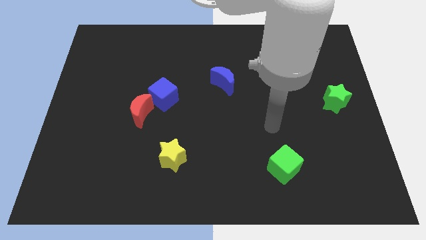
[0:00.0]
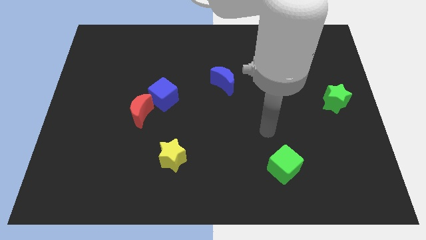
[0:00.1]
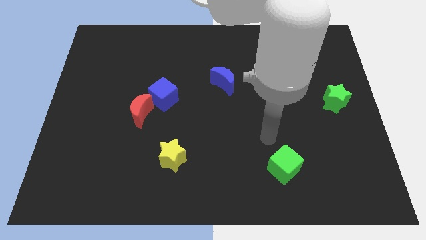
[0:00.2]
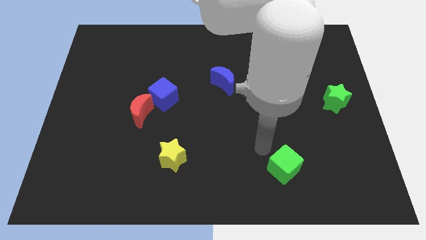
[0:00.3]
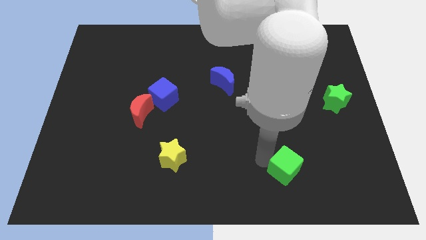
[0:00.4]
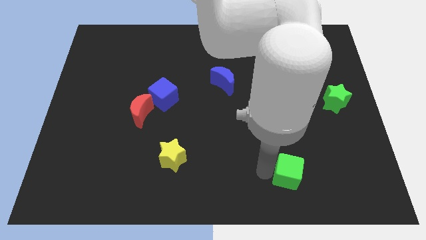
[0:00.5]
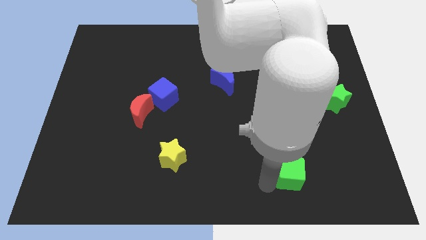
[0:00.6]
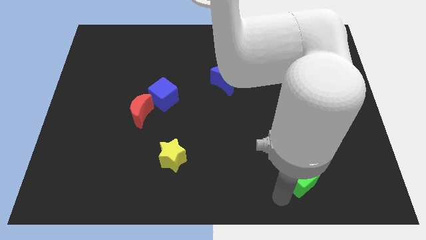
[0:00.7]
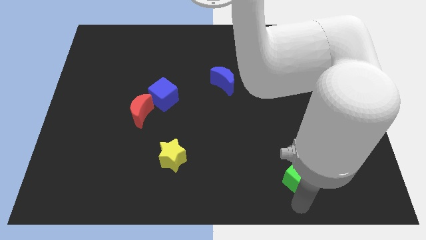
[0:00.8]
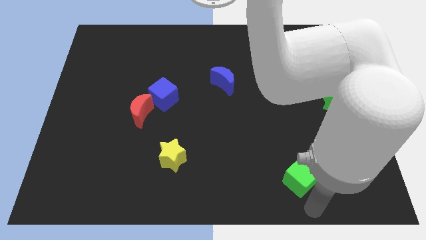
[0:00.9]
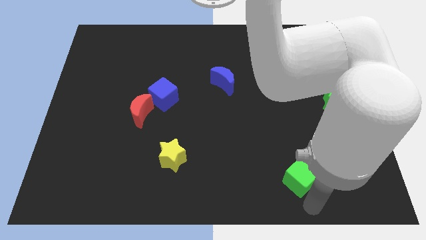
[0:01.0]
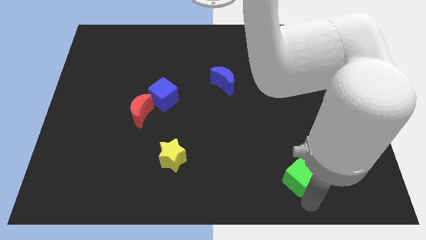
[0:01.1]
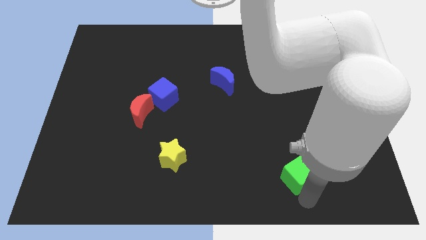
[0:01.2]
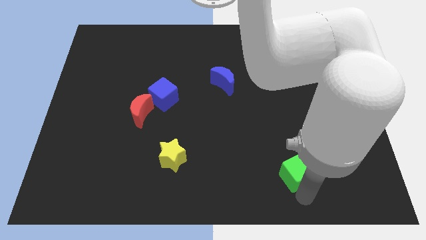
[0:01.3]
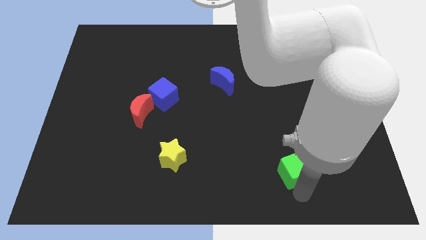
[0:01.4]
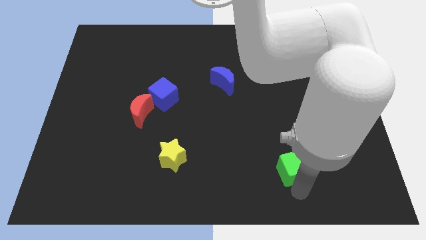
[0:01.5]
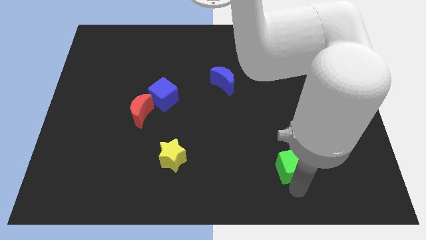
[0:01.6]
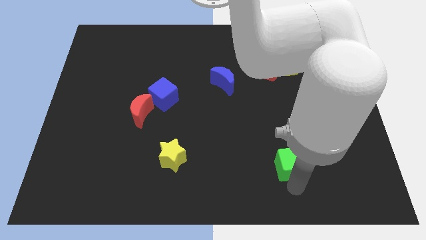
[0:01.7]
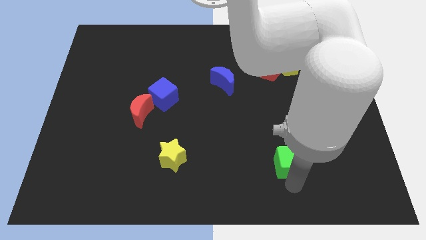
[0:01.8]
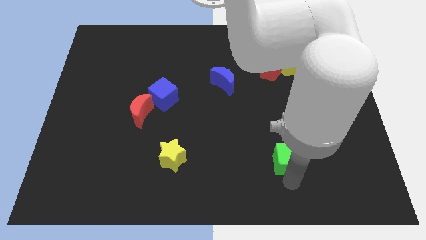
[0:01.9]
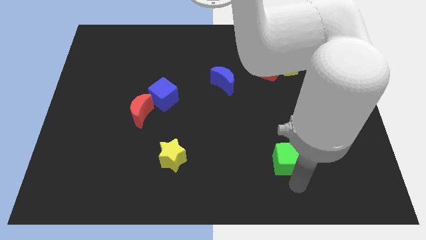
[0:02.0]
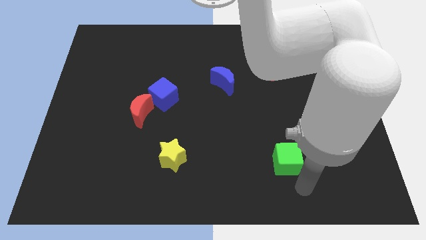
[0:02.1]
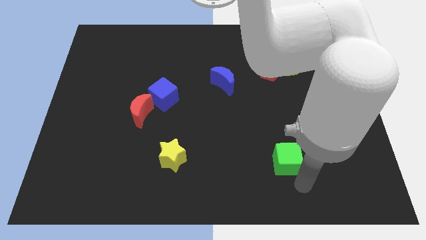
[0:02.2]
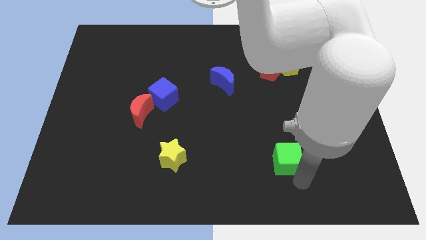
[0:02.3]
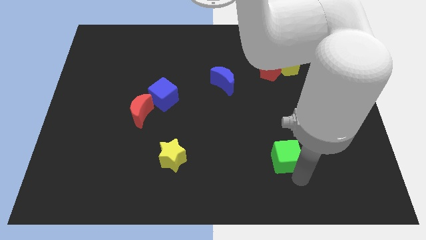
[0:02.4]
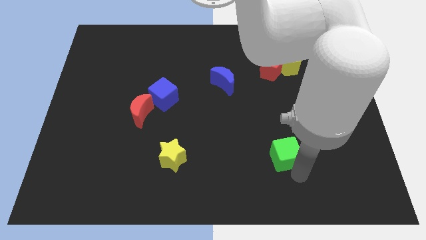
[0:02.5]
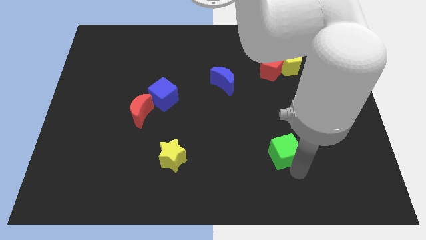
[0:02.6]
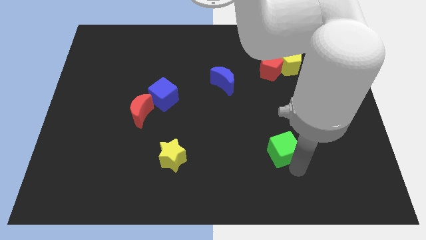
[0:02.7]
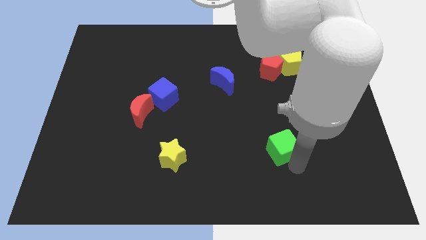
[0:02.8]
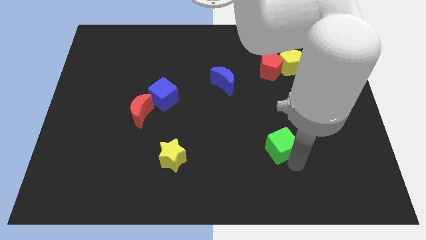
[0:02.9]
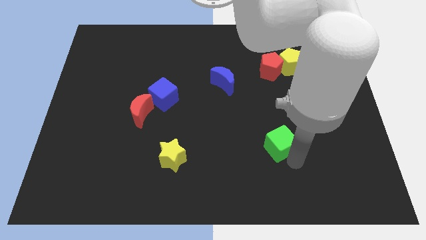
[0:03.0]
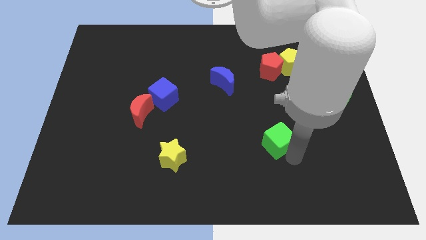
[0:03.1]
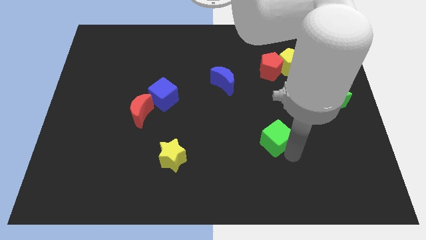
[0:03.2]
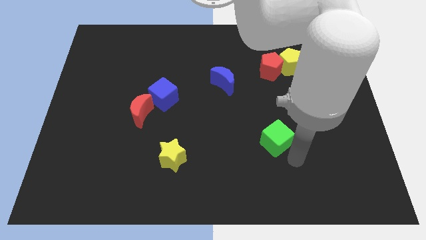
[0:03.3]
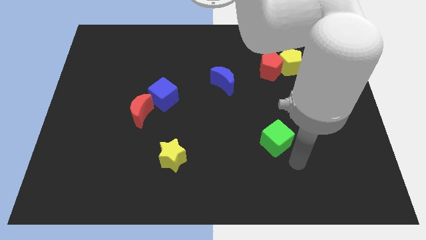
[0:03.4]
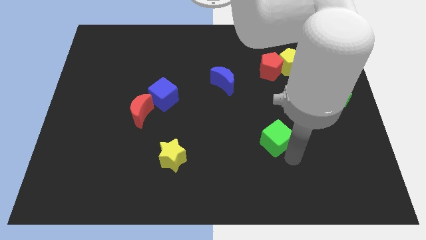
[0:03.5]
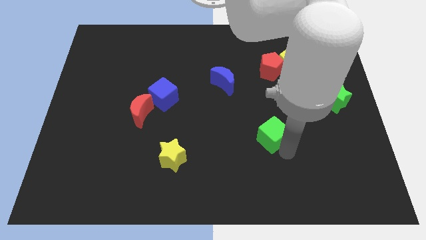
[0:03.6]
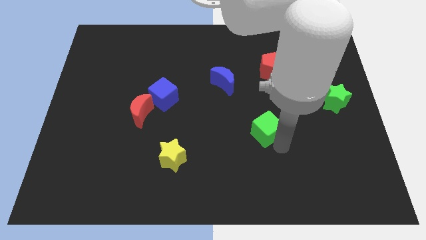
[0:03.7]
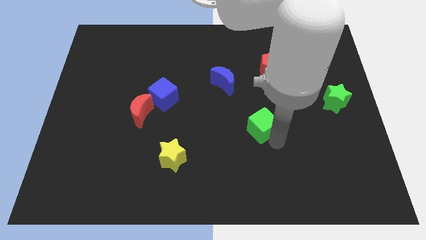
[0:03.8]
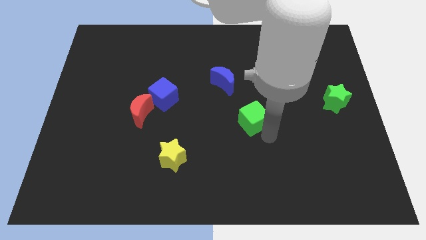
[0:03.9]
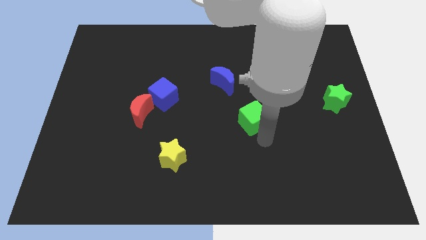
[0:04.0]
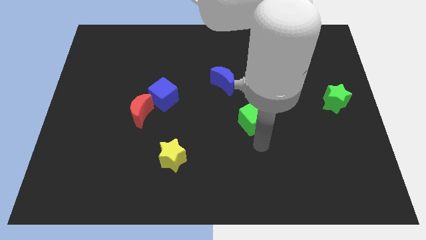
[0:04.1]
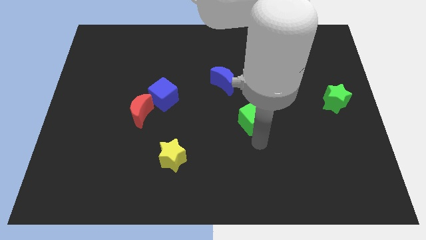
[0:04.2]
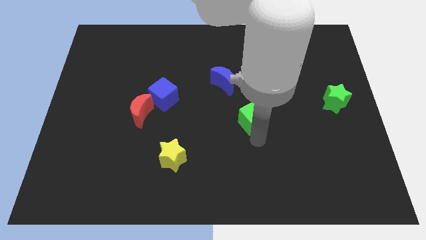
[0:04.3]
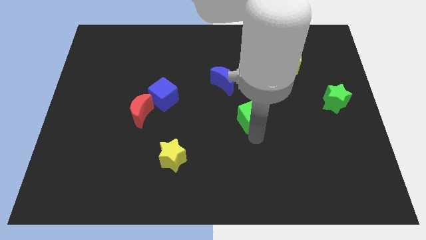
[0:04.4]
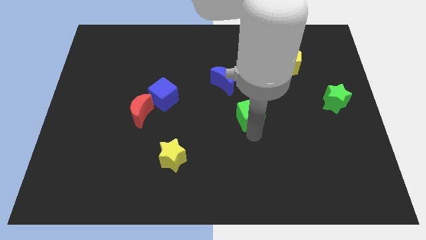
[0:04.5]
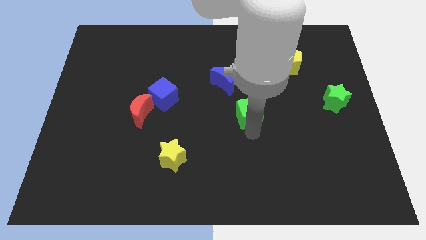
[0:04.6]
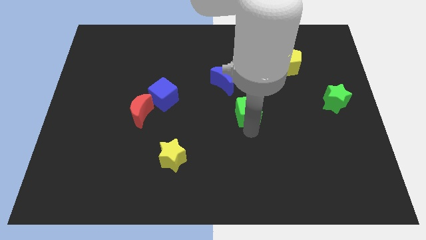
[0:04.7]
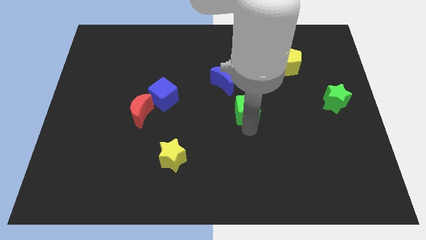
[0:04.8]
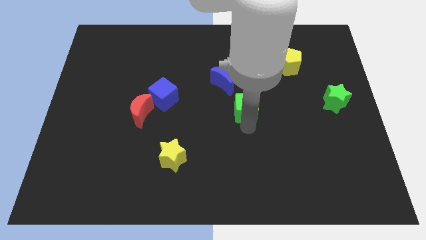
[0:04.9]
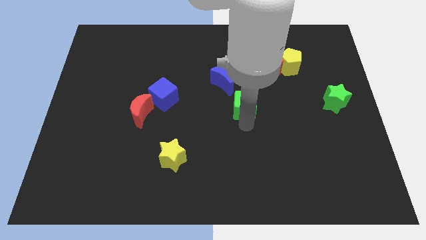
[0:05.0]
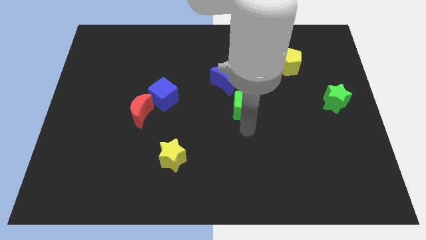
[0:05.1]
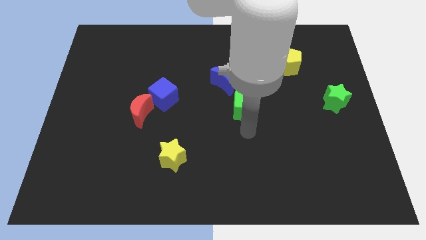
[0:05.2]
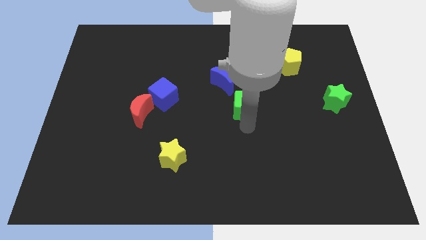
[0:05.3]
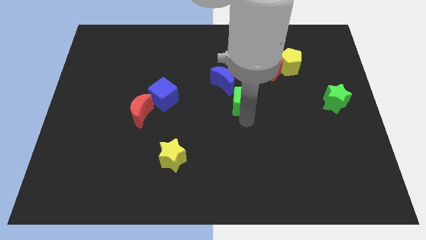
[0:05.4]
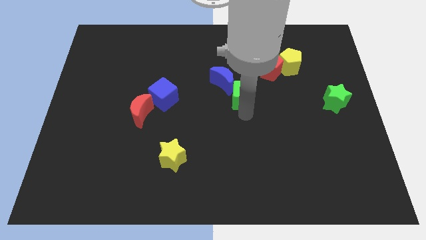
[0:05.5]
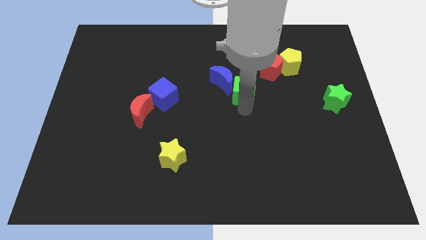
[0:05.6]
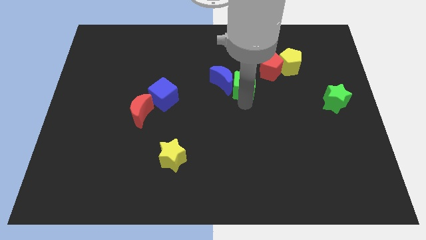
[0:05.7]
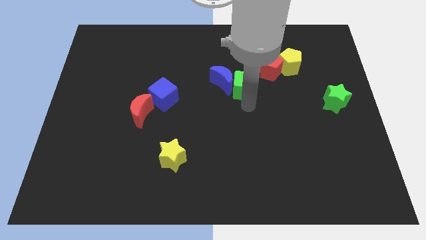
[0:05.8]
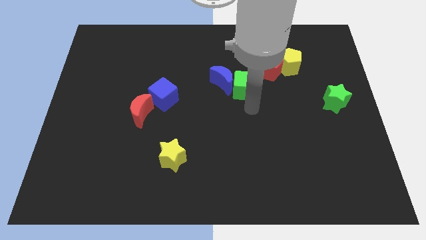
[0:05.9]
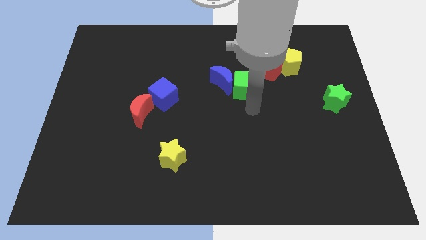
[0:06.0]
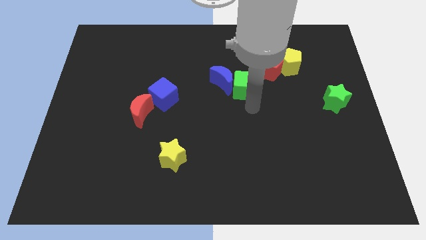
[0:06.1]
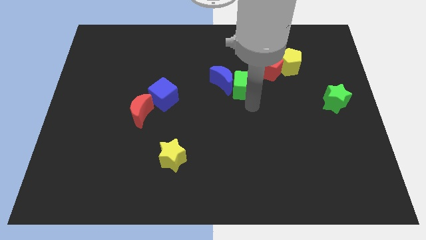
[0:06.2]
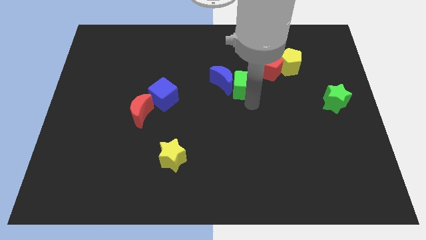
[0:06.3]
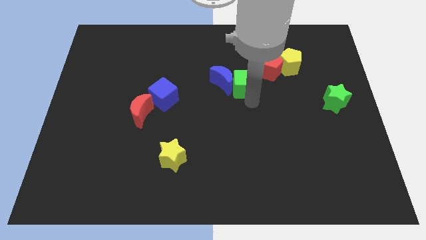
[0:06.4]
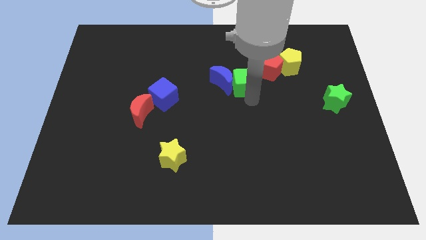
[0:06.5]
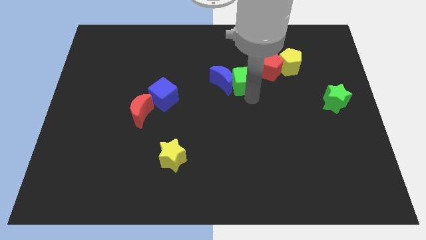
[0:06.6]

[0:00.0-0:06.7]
slide the green cube to the left of the red pentagon

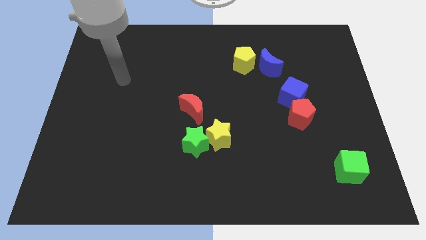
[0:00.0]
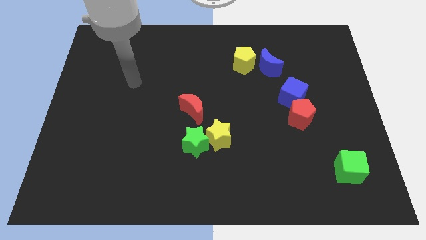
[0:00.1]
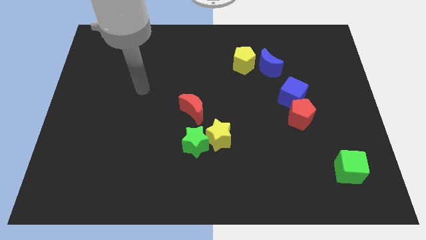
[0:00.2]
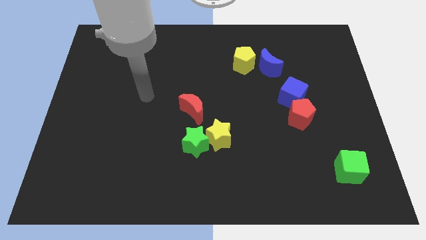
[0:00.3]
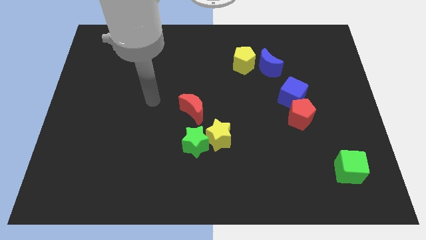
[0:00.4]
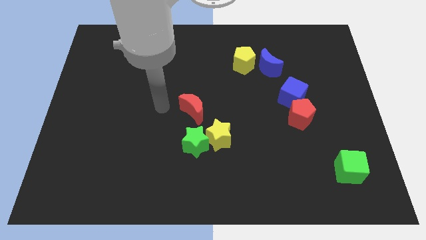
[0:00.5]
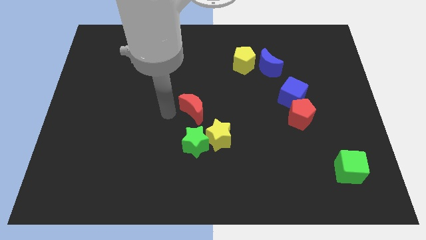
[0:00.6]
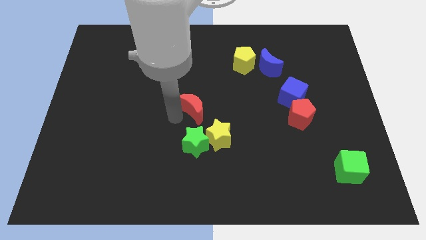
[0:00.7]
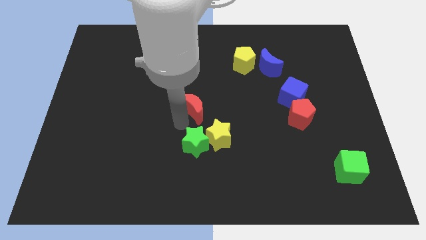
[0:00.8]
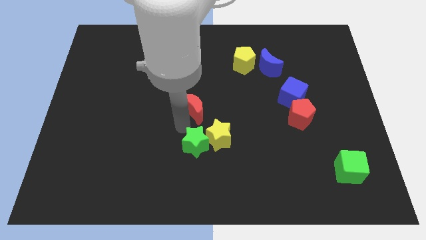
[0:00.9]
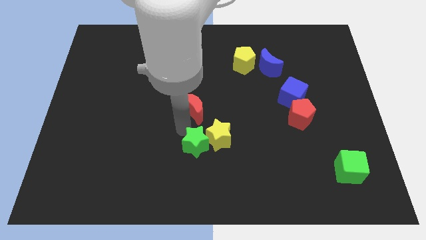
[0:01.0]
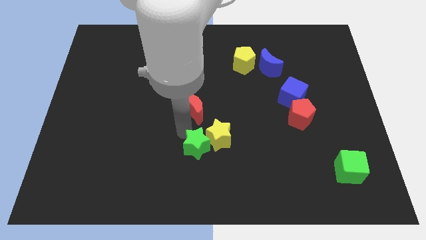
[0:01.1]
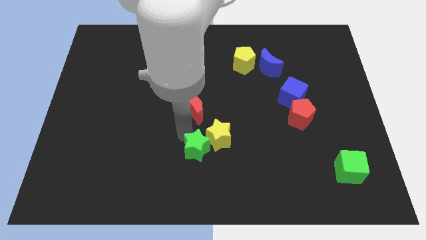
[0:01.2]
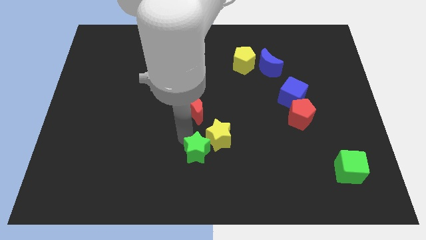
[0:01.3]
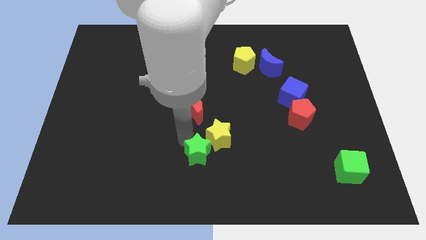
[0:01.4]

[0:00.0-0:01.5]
move the green star below the yellow star
